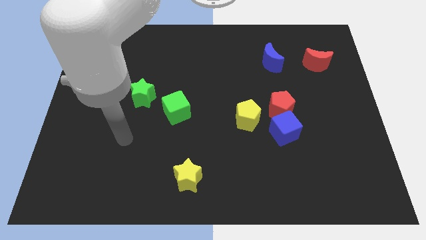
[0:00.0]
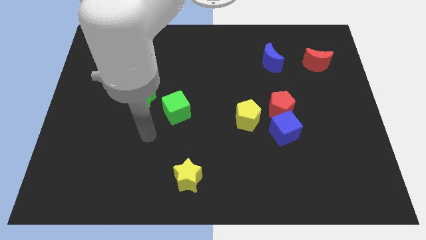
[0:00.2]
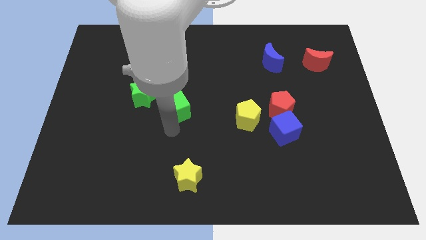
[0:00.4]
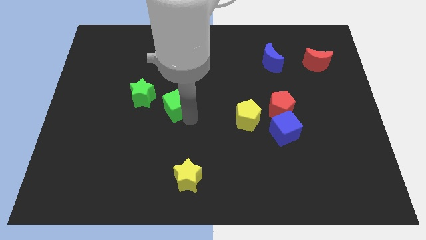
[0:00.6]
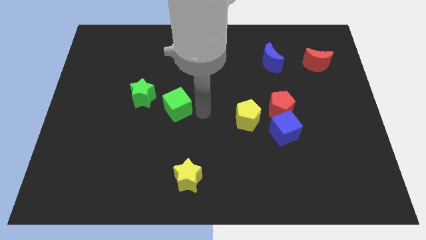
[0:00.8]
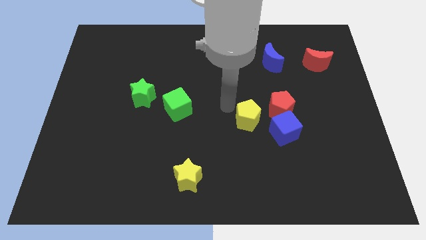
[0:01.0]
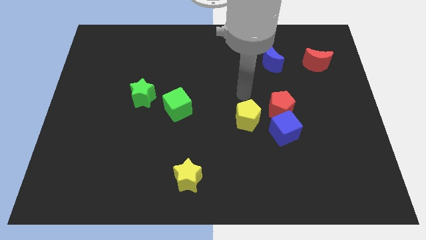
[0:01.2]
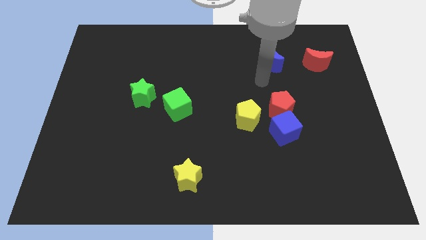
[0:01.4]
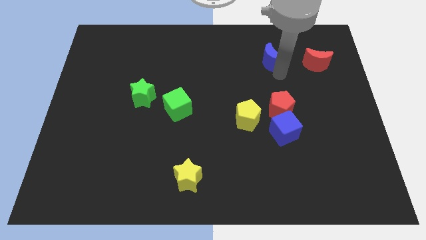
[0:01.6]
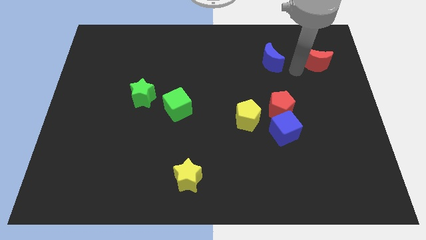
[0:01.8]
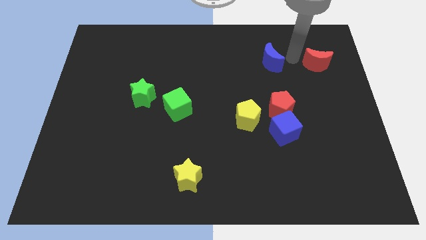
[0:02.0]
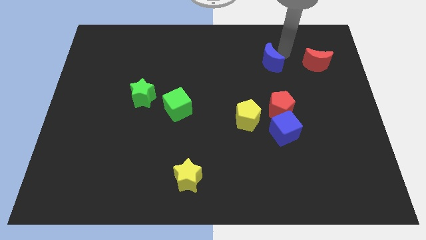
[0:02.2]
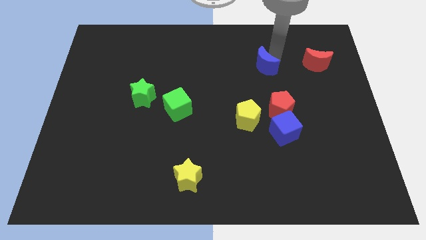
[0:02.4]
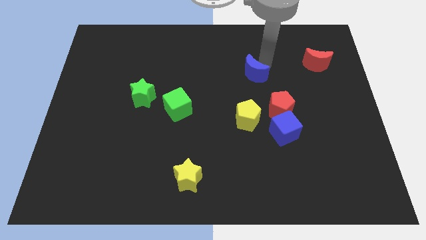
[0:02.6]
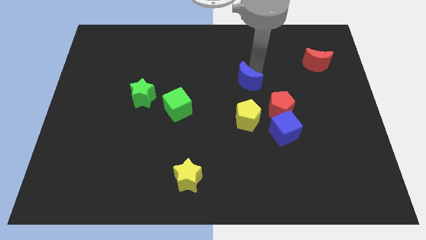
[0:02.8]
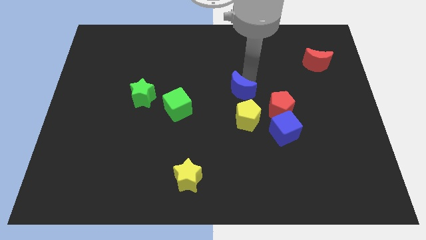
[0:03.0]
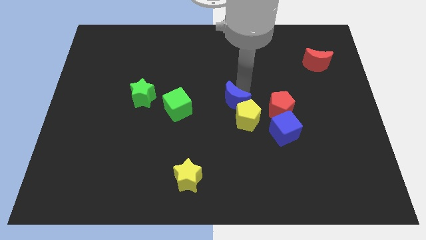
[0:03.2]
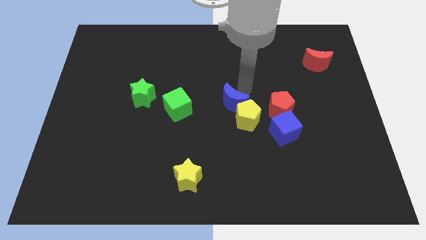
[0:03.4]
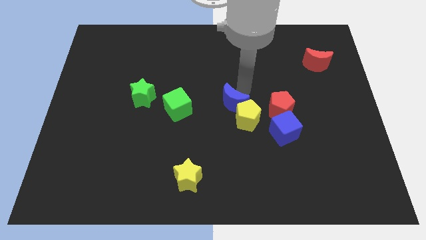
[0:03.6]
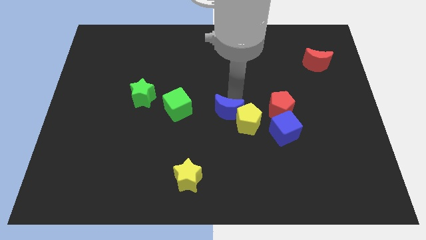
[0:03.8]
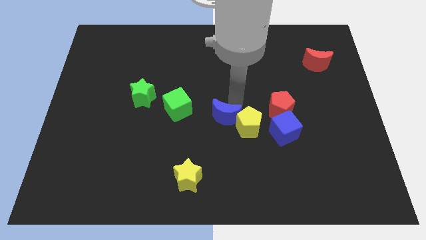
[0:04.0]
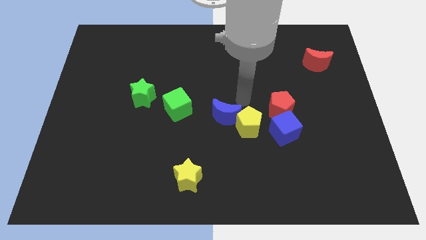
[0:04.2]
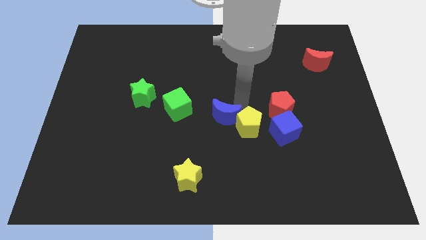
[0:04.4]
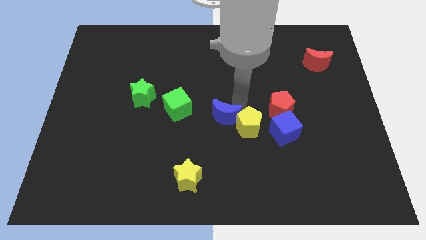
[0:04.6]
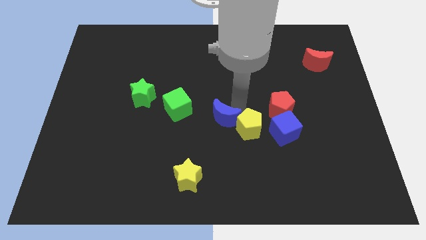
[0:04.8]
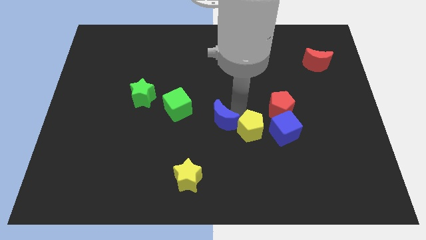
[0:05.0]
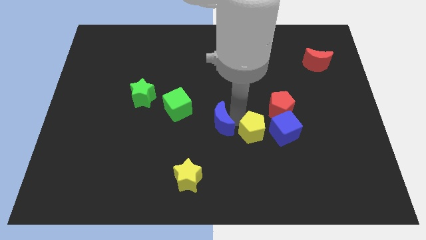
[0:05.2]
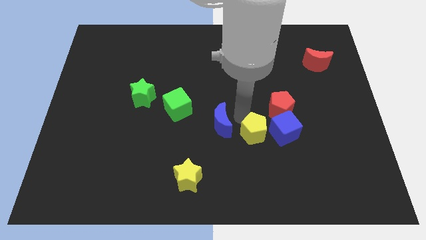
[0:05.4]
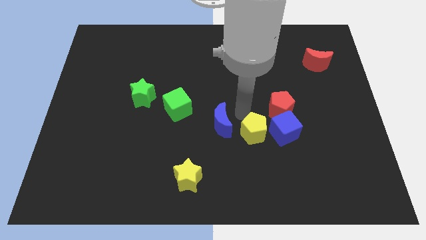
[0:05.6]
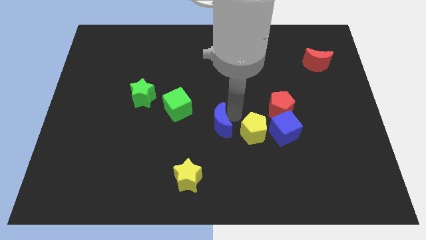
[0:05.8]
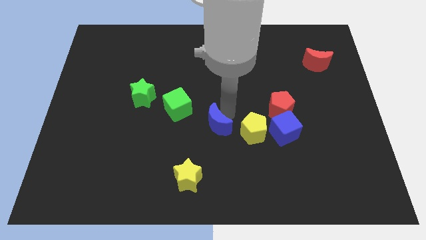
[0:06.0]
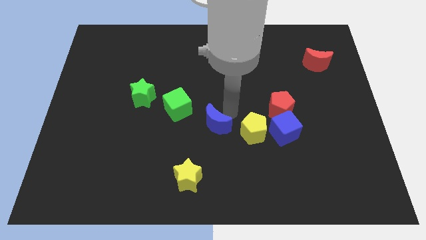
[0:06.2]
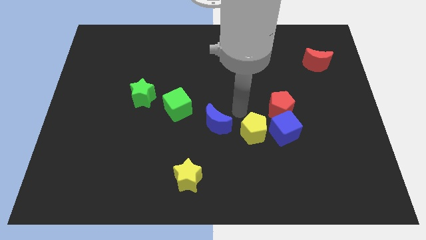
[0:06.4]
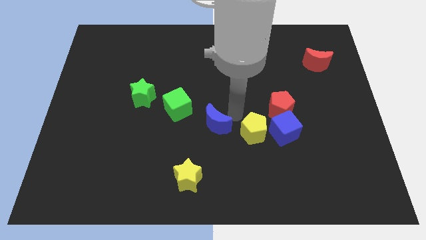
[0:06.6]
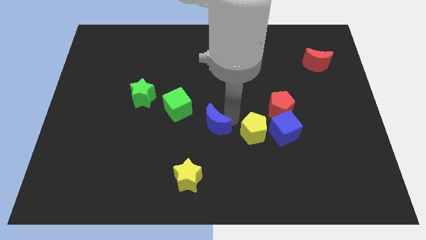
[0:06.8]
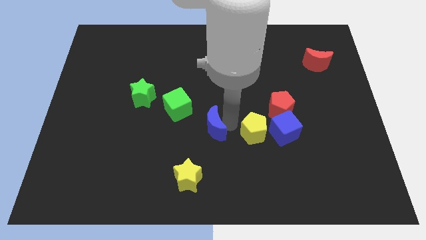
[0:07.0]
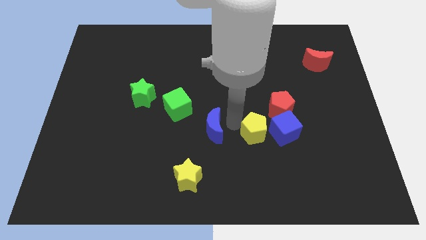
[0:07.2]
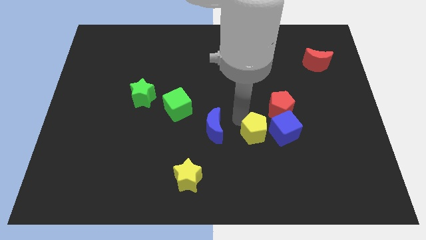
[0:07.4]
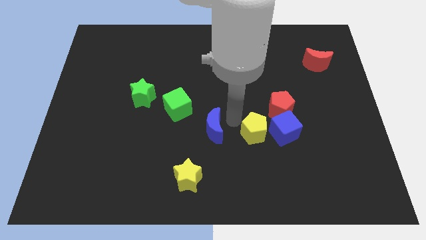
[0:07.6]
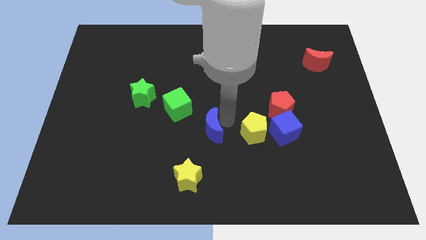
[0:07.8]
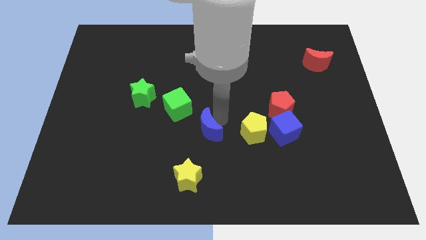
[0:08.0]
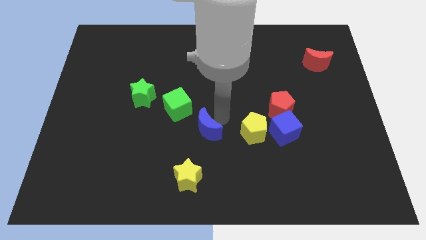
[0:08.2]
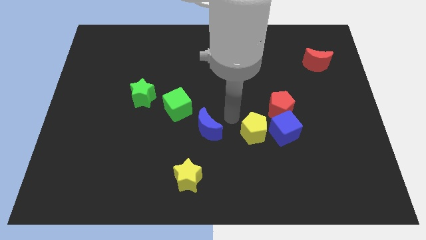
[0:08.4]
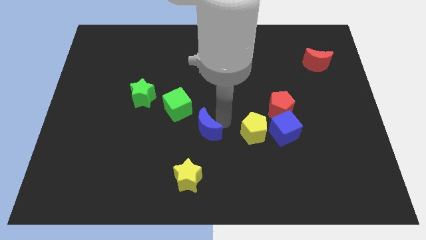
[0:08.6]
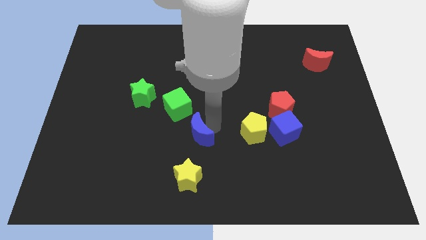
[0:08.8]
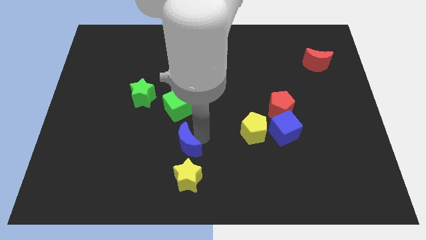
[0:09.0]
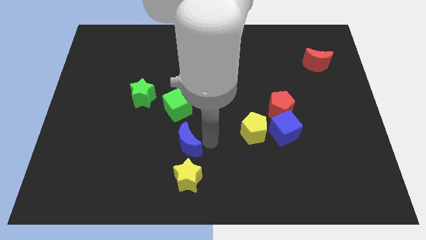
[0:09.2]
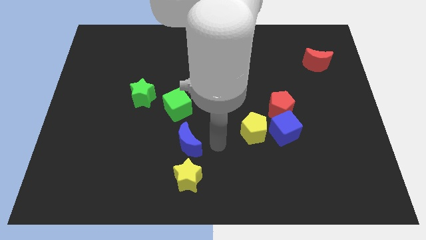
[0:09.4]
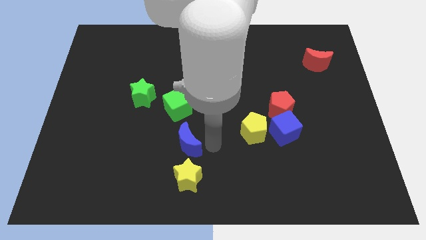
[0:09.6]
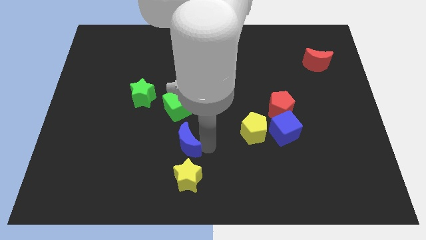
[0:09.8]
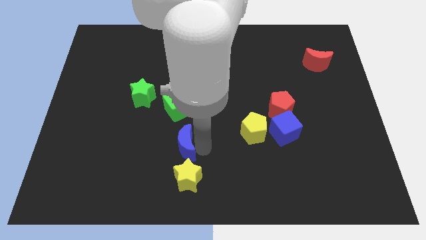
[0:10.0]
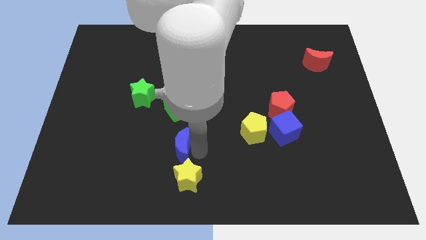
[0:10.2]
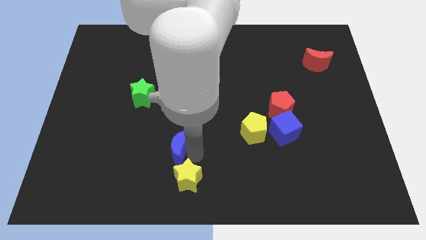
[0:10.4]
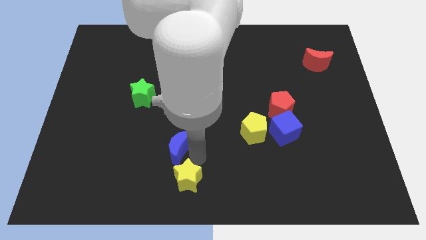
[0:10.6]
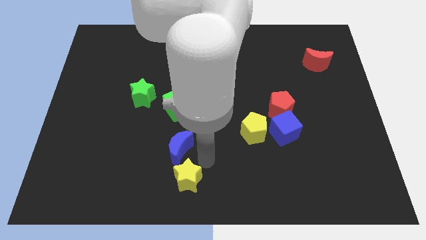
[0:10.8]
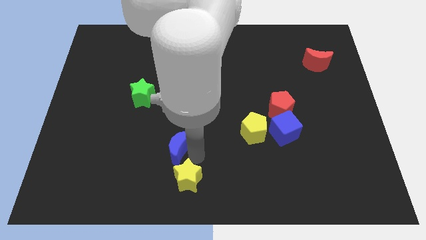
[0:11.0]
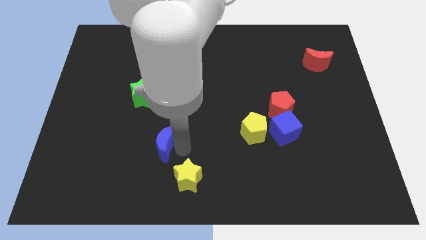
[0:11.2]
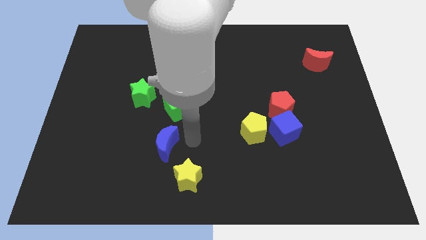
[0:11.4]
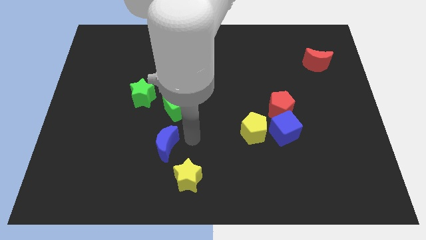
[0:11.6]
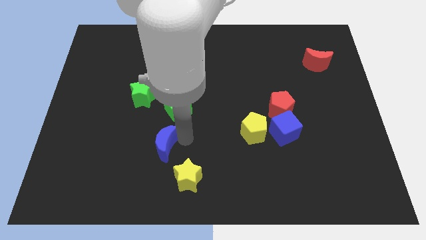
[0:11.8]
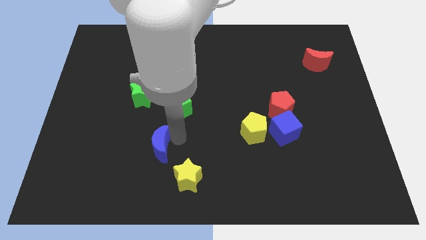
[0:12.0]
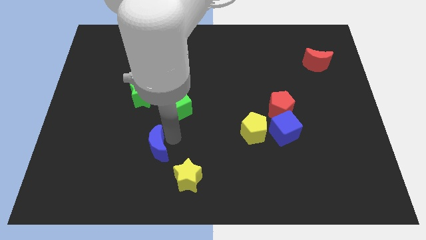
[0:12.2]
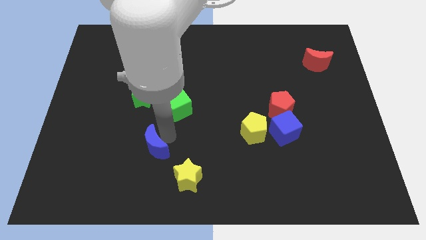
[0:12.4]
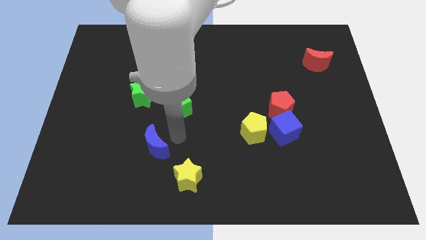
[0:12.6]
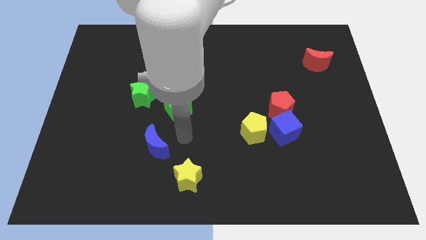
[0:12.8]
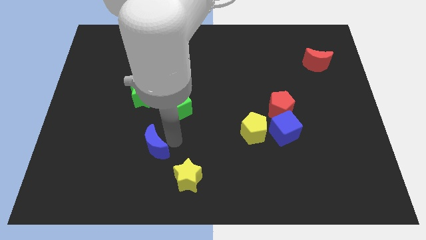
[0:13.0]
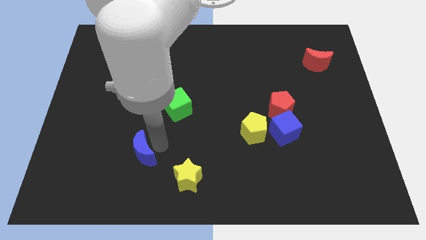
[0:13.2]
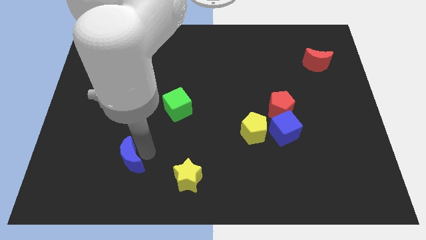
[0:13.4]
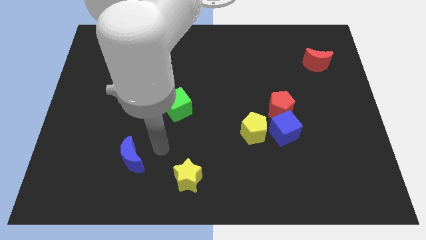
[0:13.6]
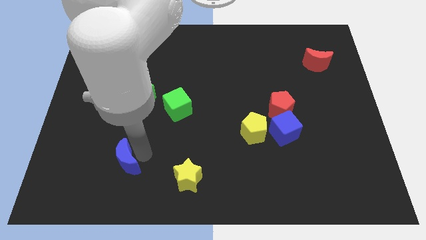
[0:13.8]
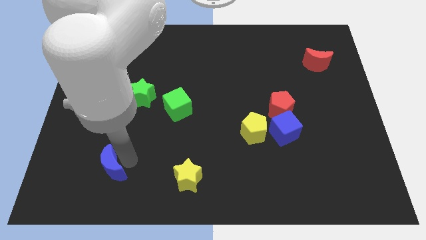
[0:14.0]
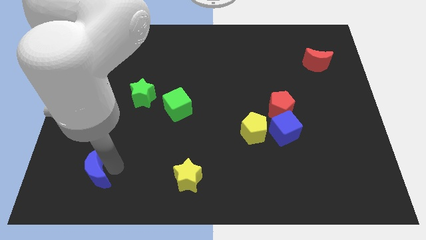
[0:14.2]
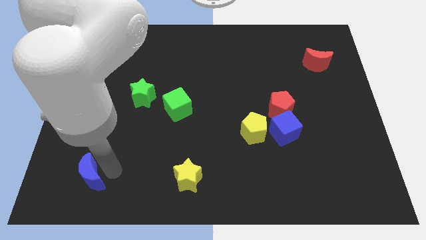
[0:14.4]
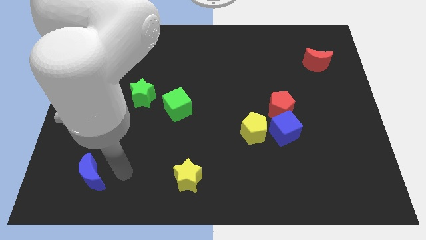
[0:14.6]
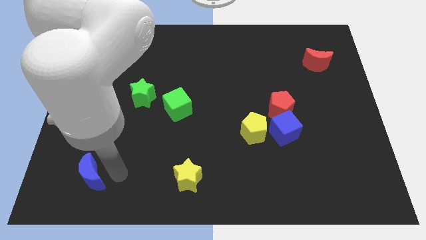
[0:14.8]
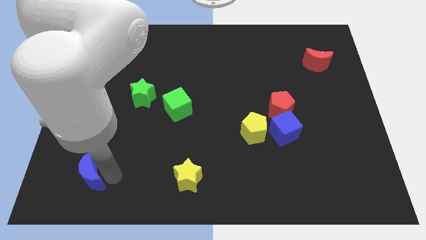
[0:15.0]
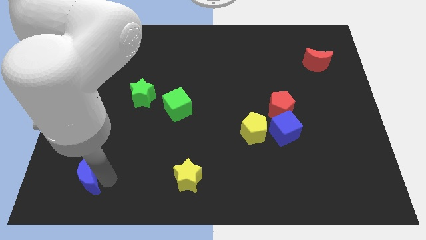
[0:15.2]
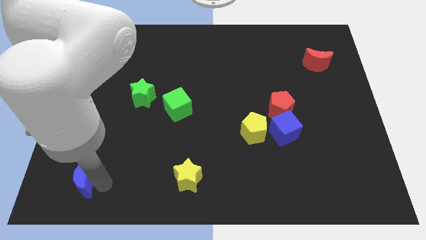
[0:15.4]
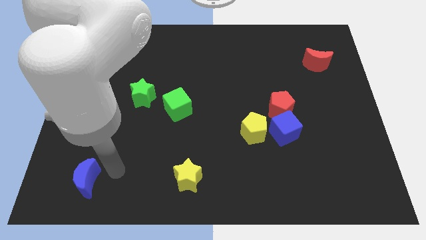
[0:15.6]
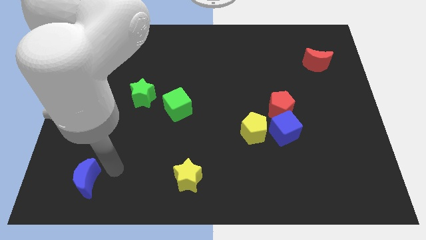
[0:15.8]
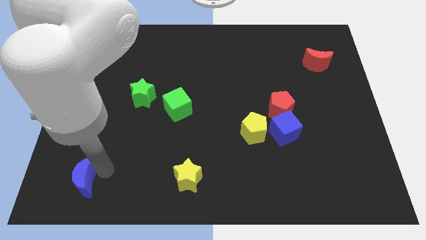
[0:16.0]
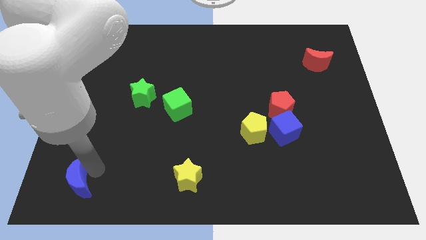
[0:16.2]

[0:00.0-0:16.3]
put the blue moon to the bottom left

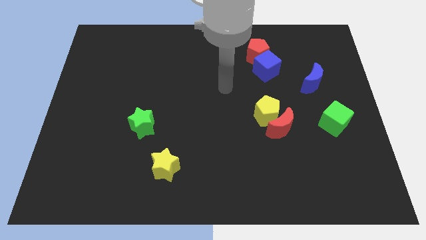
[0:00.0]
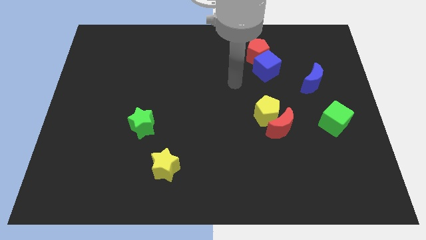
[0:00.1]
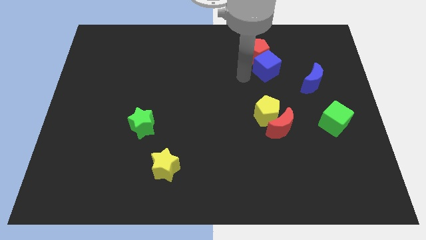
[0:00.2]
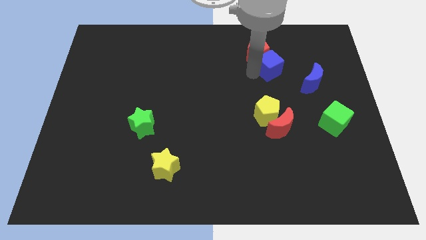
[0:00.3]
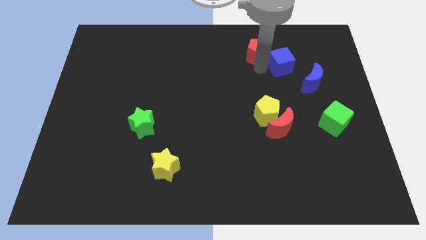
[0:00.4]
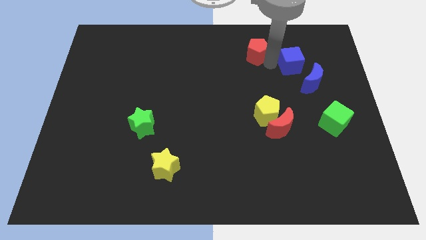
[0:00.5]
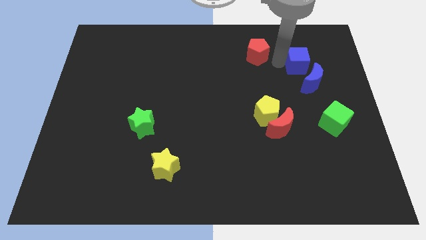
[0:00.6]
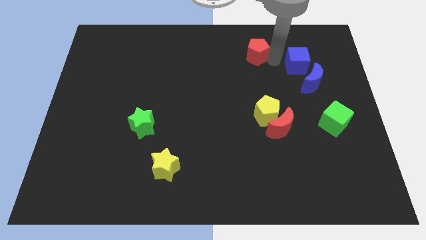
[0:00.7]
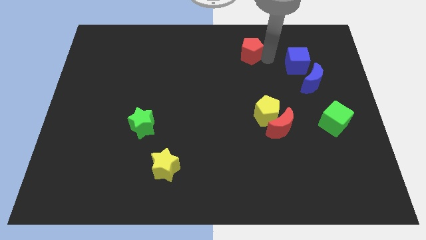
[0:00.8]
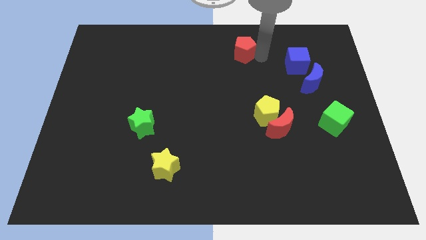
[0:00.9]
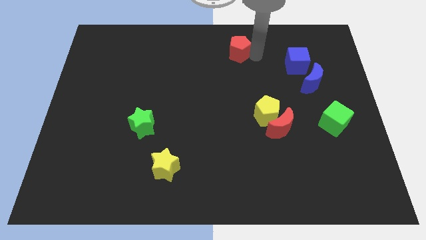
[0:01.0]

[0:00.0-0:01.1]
put the red pentagon to the towards your base
